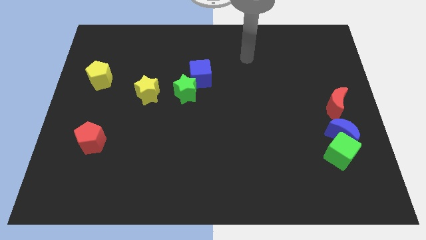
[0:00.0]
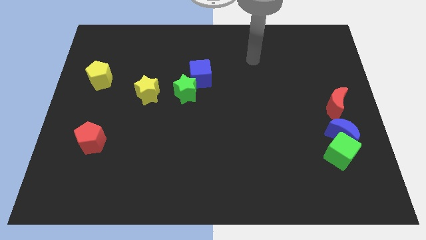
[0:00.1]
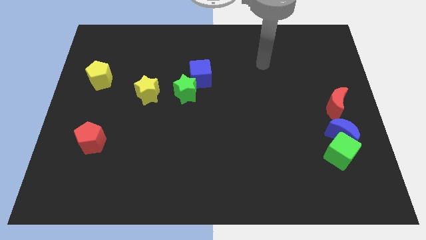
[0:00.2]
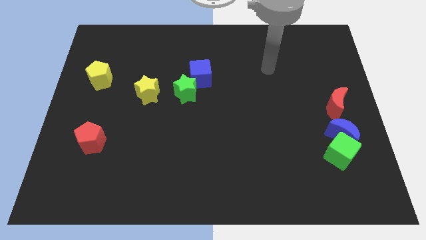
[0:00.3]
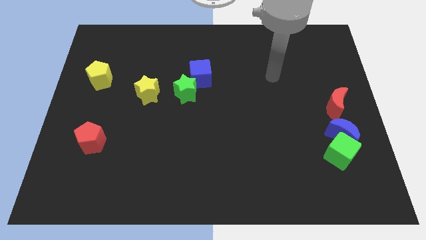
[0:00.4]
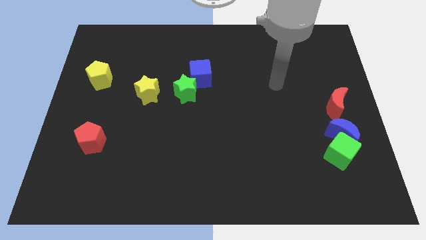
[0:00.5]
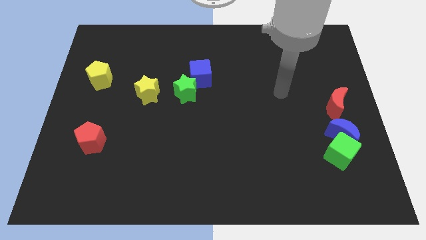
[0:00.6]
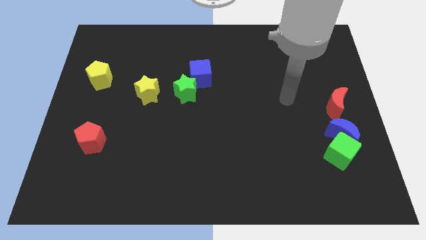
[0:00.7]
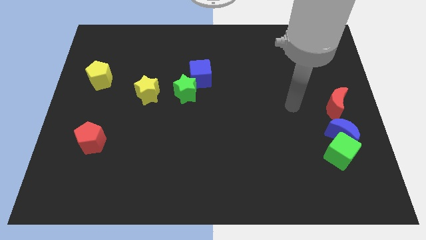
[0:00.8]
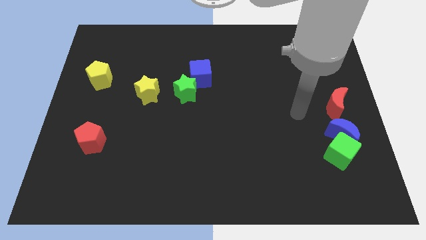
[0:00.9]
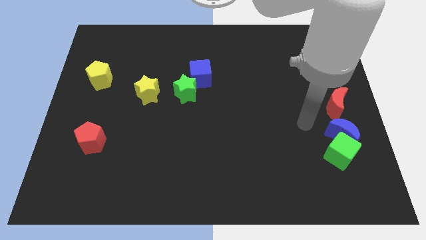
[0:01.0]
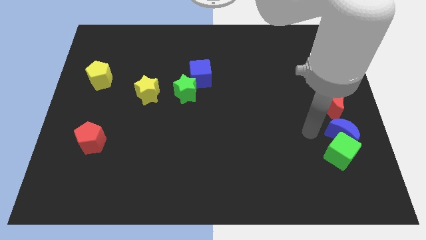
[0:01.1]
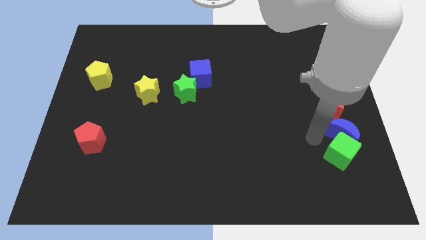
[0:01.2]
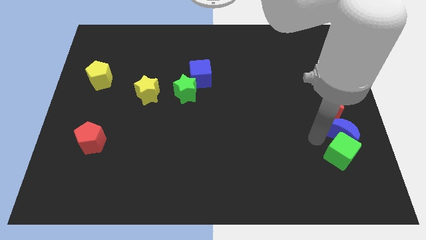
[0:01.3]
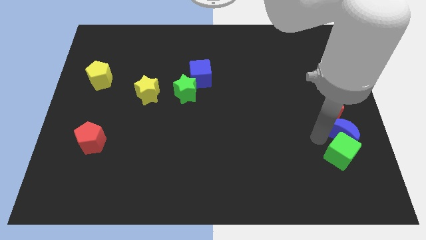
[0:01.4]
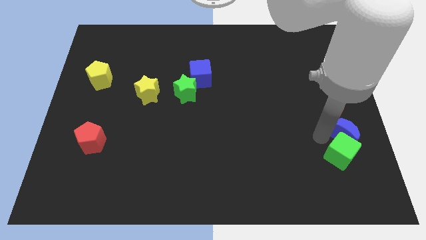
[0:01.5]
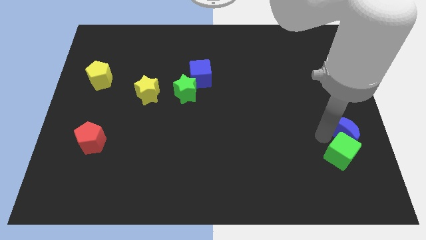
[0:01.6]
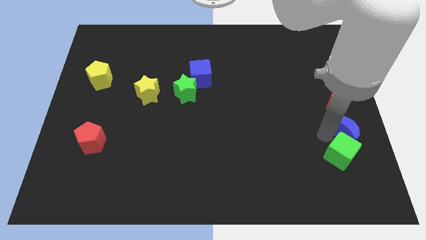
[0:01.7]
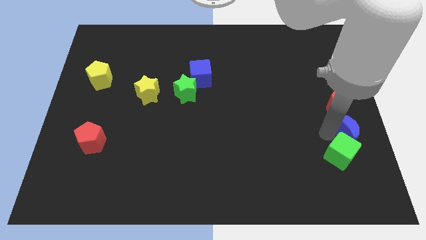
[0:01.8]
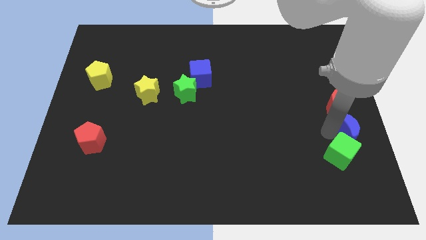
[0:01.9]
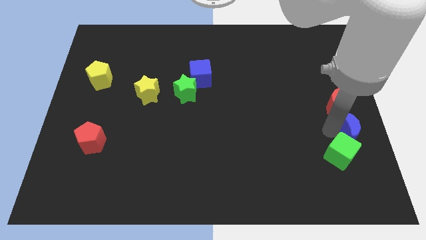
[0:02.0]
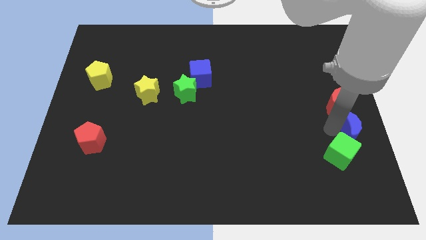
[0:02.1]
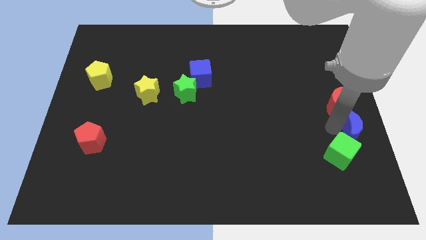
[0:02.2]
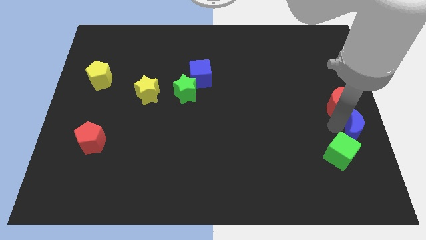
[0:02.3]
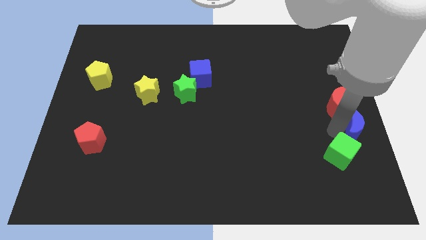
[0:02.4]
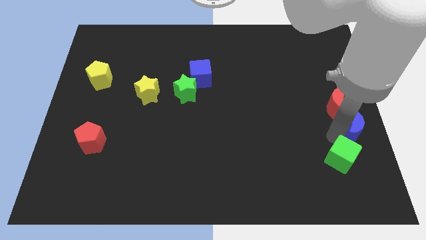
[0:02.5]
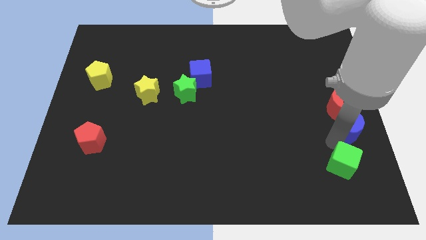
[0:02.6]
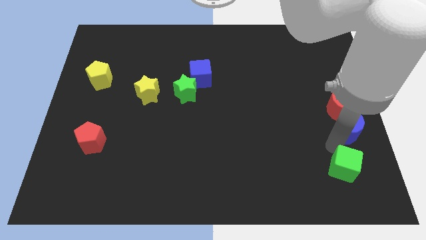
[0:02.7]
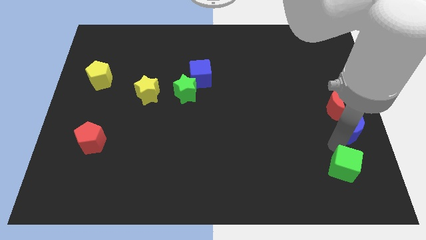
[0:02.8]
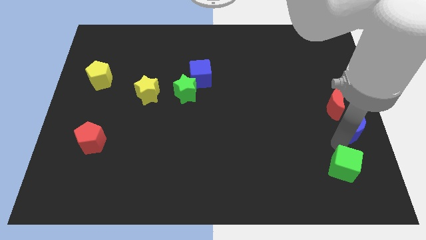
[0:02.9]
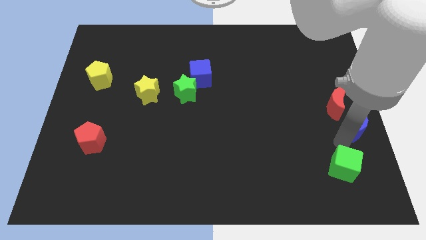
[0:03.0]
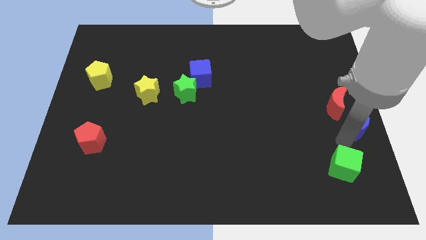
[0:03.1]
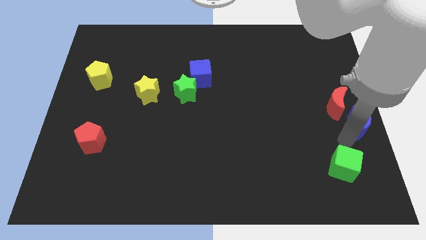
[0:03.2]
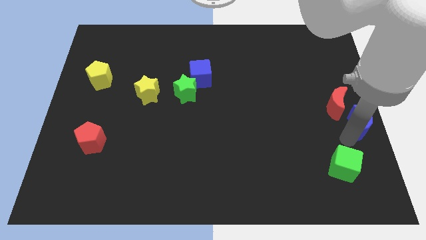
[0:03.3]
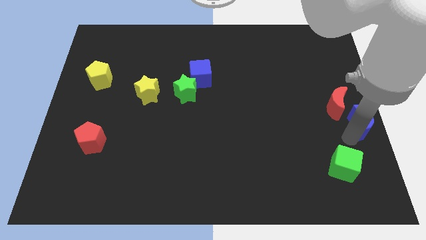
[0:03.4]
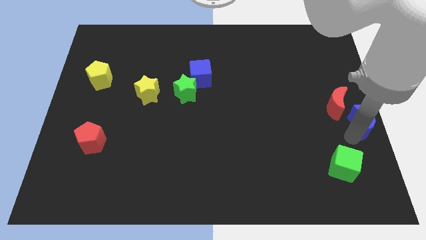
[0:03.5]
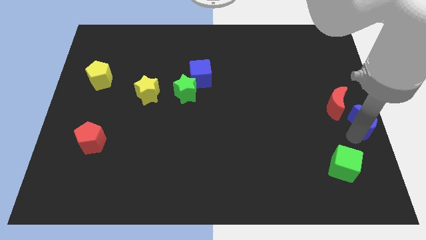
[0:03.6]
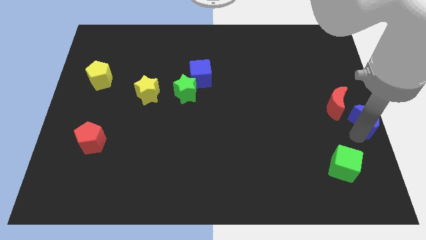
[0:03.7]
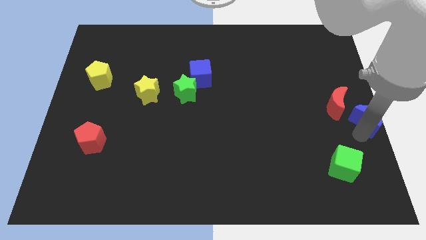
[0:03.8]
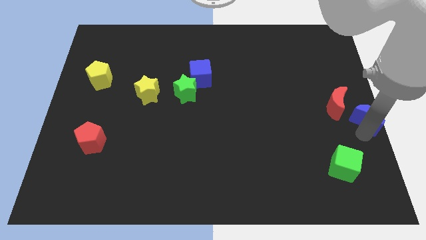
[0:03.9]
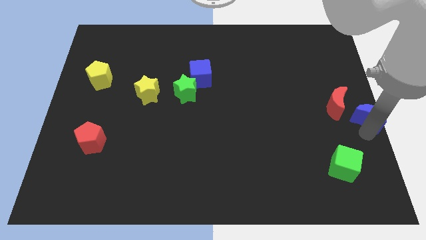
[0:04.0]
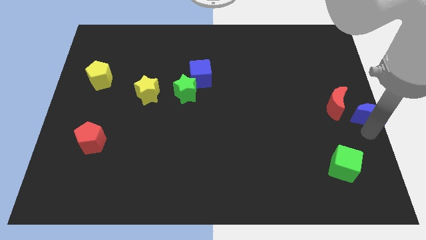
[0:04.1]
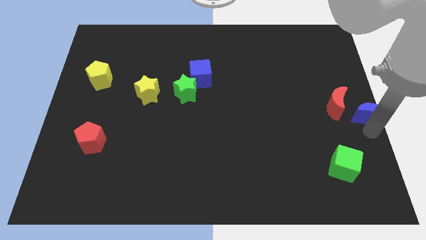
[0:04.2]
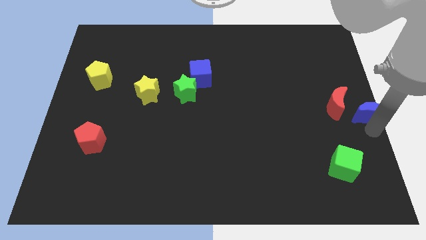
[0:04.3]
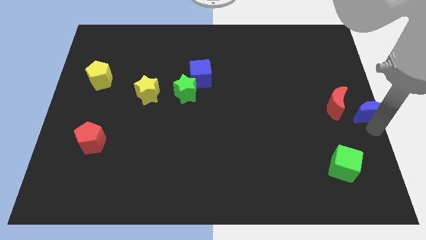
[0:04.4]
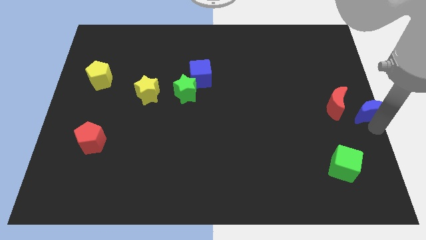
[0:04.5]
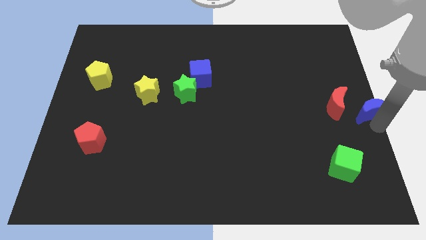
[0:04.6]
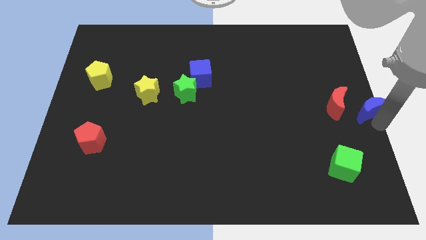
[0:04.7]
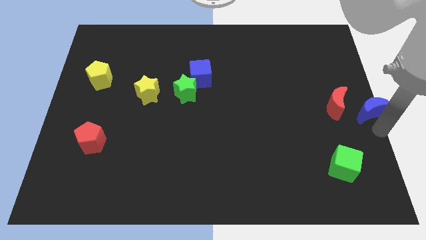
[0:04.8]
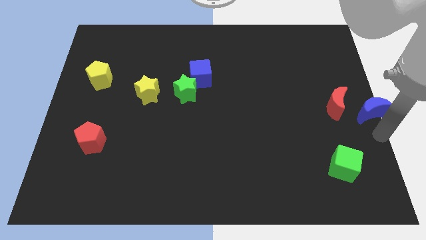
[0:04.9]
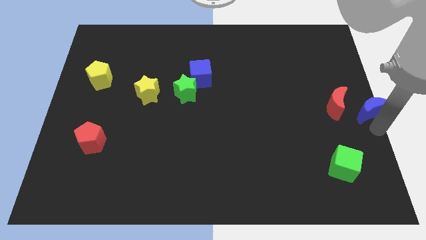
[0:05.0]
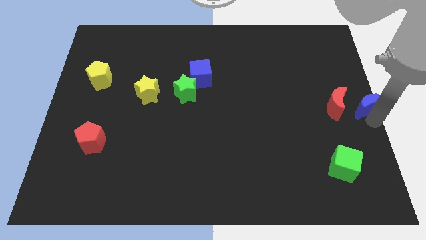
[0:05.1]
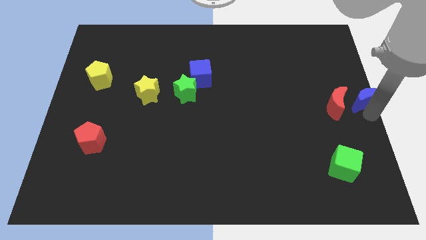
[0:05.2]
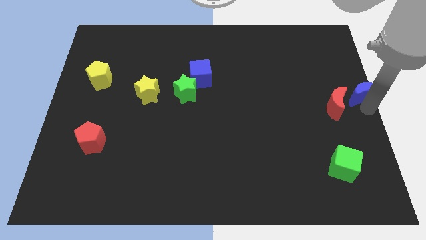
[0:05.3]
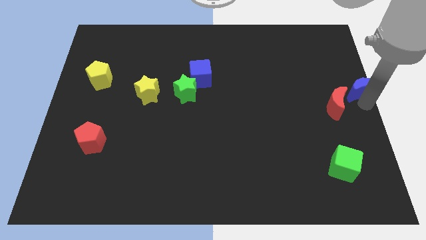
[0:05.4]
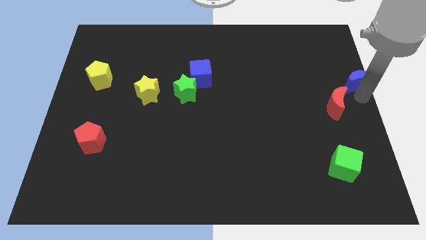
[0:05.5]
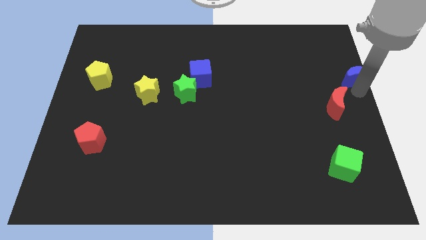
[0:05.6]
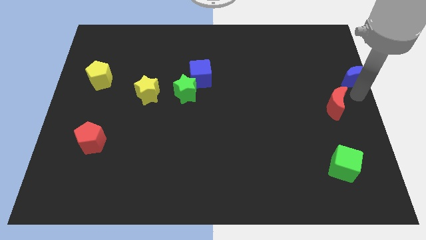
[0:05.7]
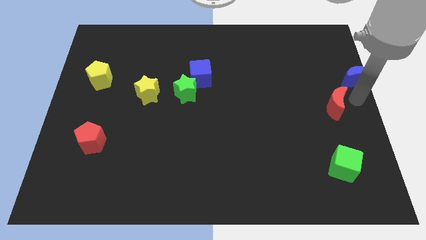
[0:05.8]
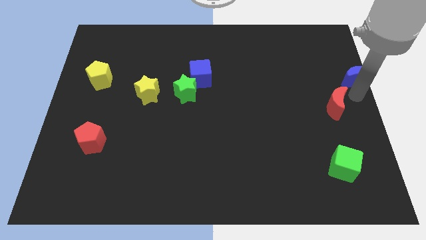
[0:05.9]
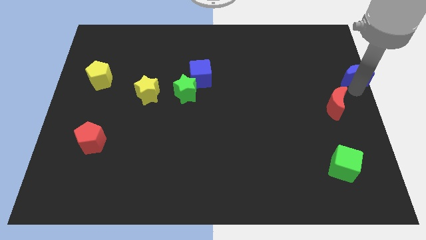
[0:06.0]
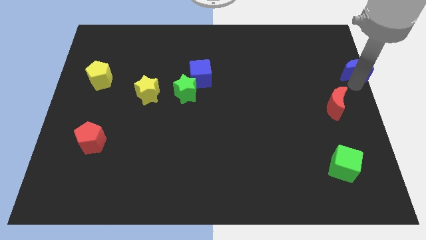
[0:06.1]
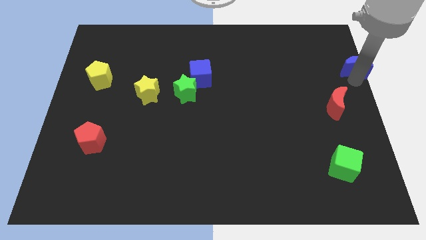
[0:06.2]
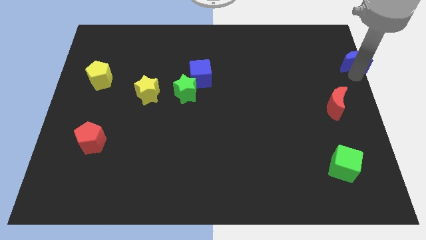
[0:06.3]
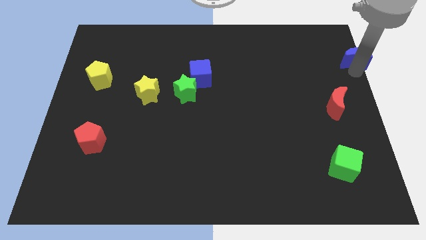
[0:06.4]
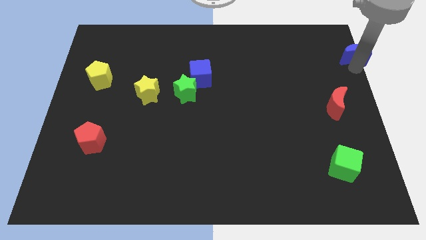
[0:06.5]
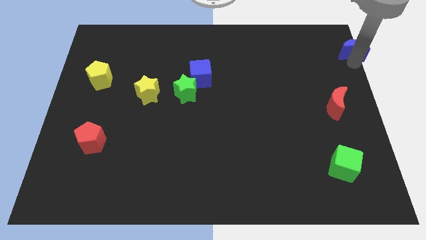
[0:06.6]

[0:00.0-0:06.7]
slide the blue moon to the top right of the board
